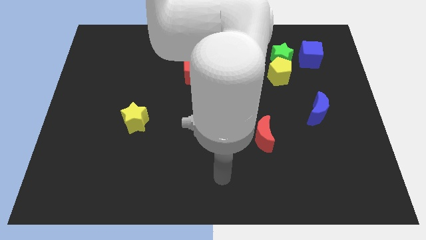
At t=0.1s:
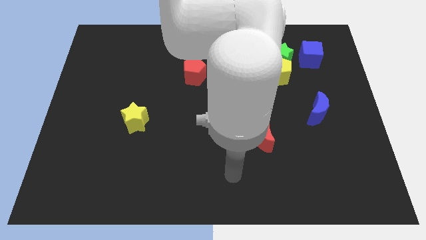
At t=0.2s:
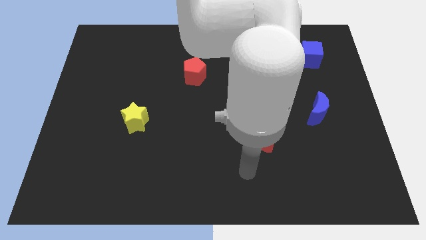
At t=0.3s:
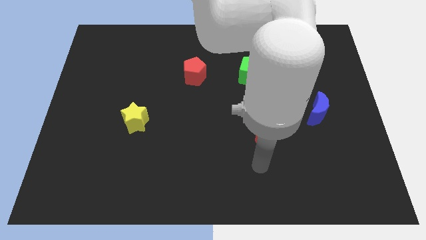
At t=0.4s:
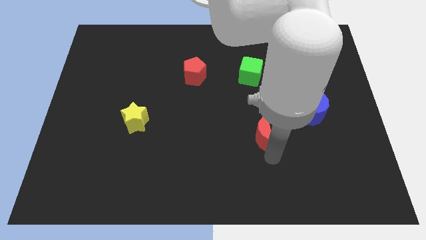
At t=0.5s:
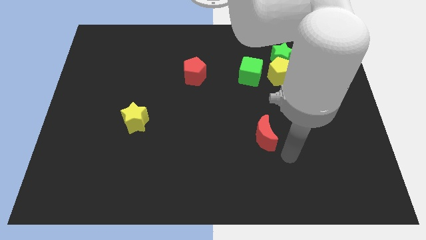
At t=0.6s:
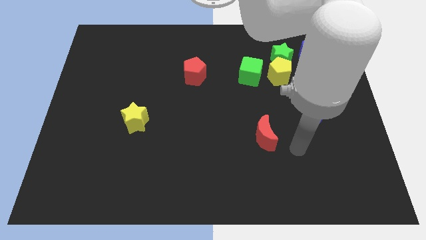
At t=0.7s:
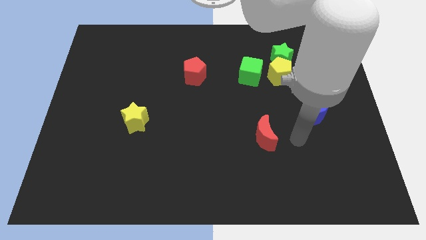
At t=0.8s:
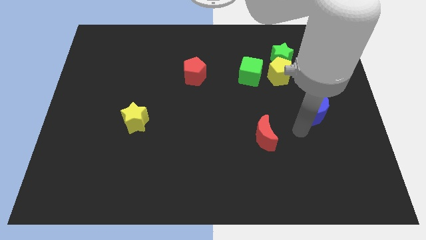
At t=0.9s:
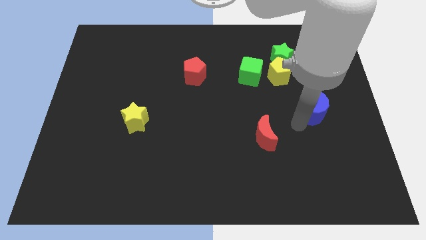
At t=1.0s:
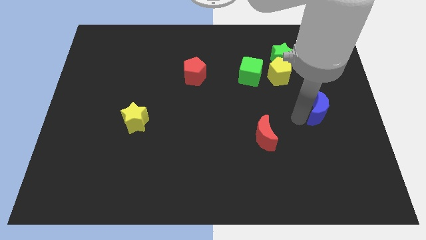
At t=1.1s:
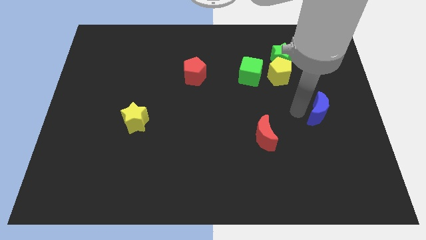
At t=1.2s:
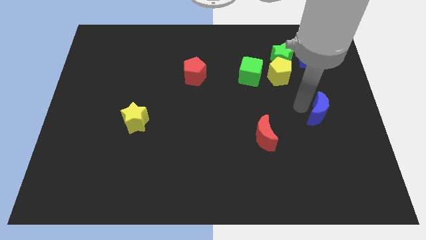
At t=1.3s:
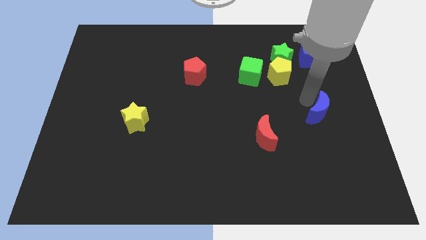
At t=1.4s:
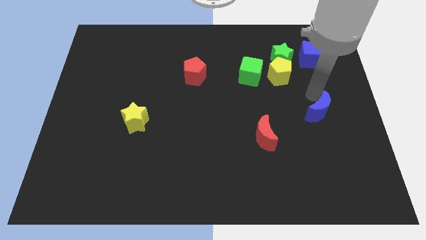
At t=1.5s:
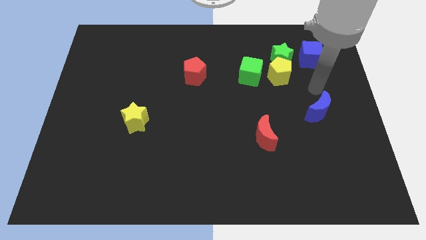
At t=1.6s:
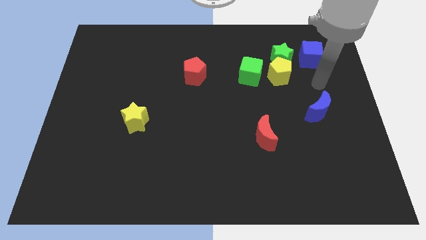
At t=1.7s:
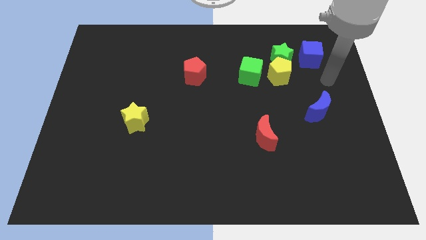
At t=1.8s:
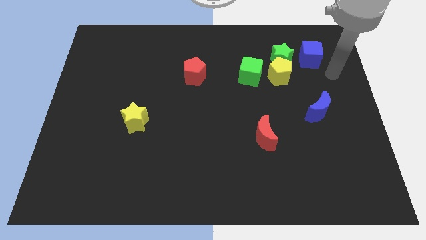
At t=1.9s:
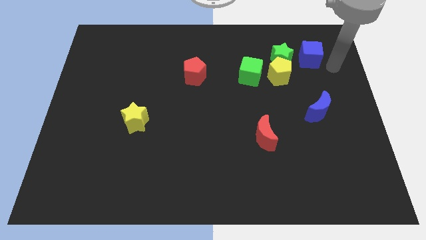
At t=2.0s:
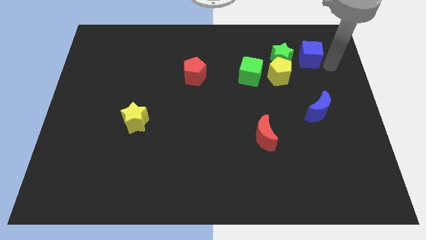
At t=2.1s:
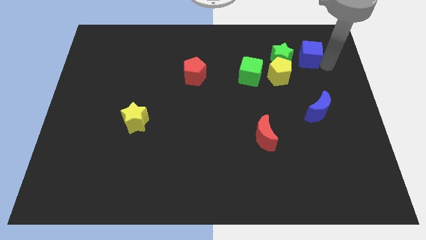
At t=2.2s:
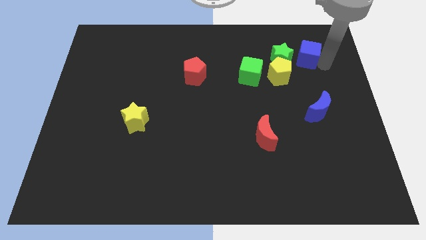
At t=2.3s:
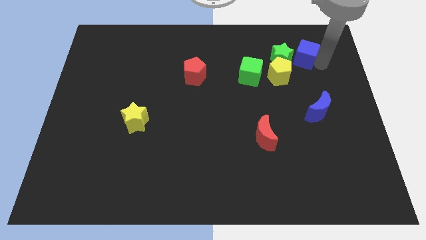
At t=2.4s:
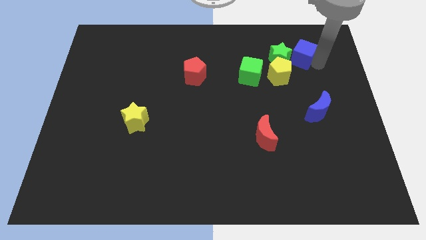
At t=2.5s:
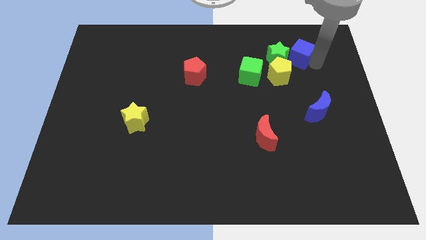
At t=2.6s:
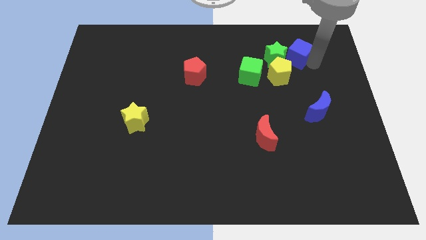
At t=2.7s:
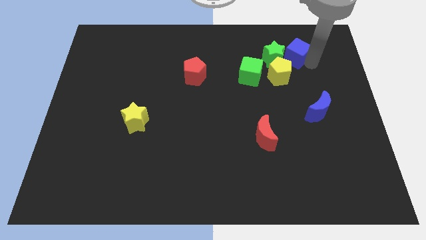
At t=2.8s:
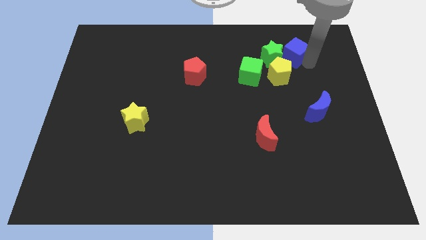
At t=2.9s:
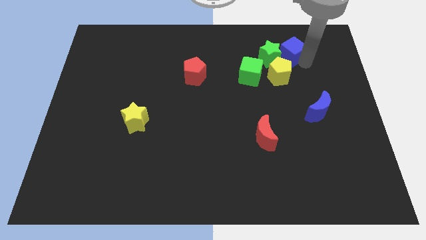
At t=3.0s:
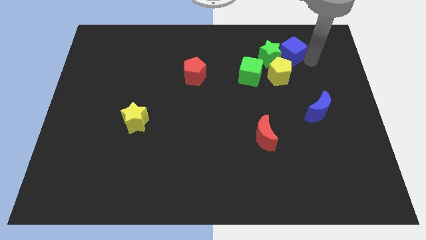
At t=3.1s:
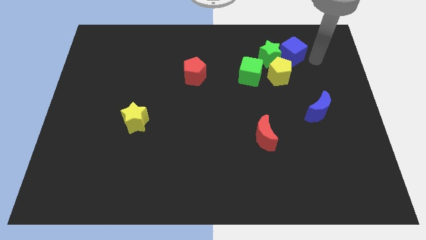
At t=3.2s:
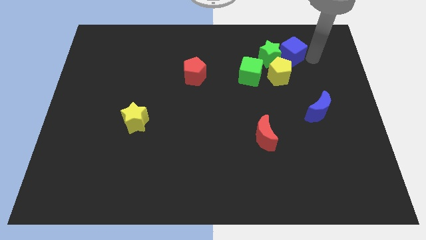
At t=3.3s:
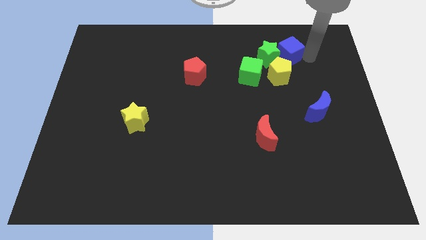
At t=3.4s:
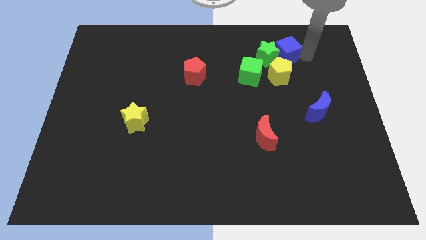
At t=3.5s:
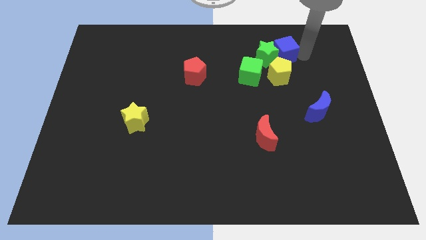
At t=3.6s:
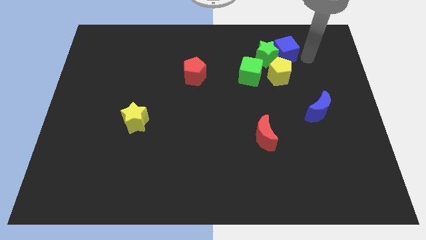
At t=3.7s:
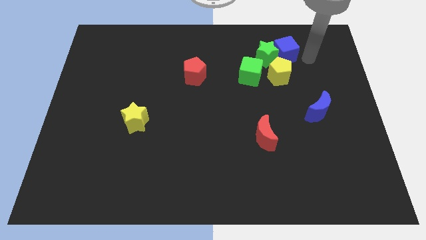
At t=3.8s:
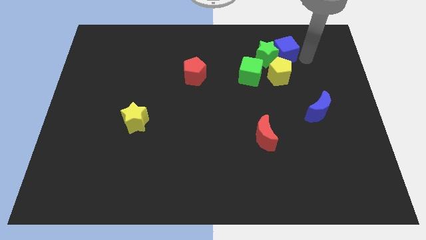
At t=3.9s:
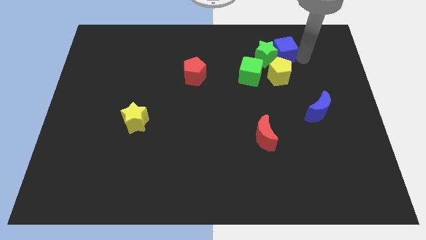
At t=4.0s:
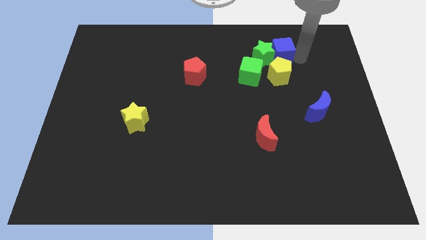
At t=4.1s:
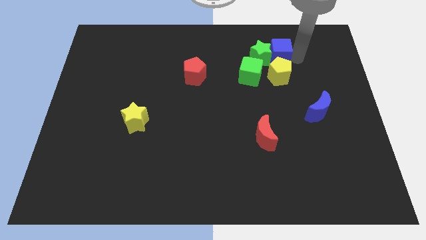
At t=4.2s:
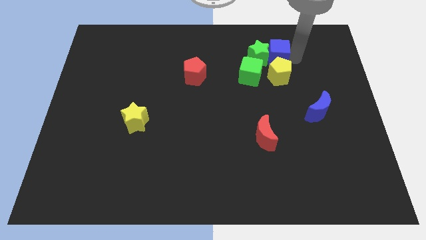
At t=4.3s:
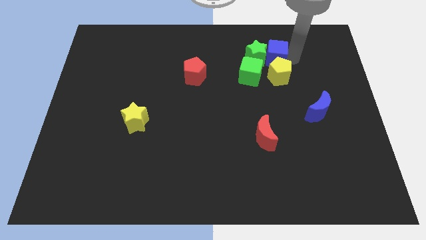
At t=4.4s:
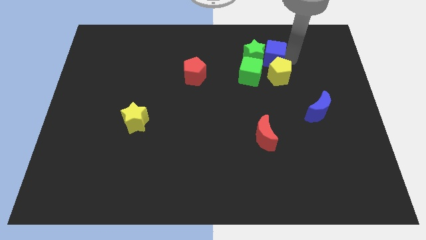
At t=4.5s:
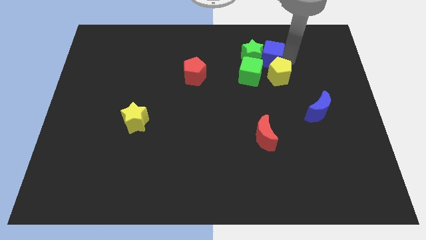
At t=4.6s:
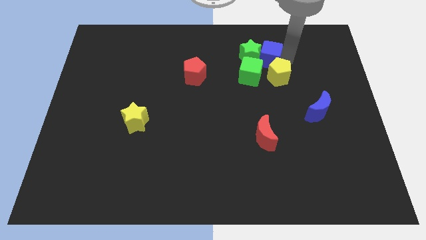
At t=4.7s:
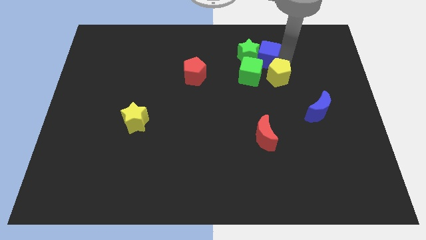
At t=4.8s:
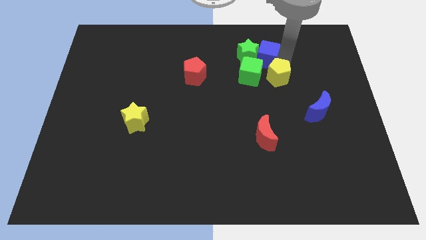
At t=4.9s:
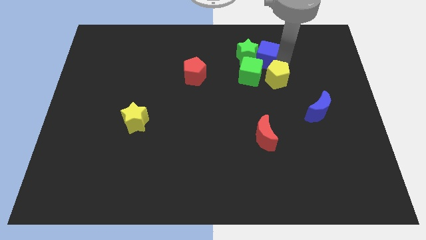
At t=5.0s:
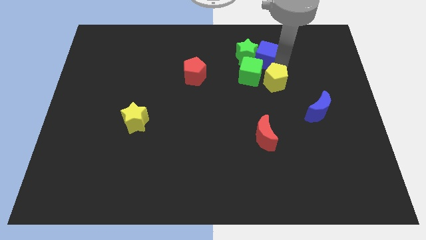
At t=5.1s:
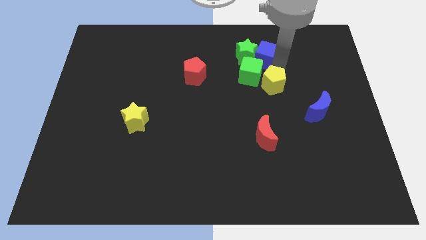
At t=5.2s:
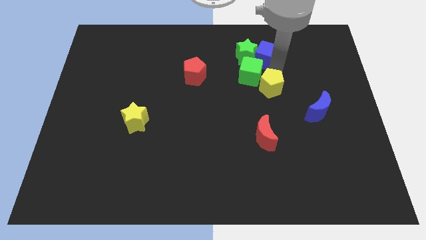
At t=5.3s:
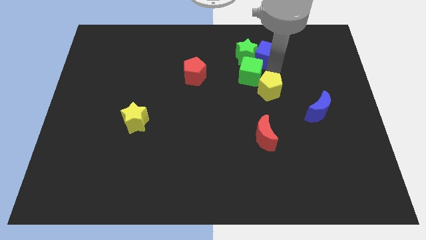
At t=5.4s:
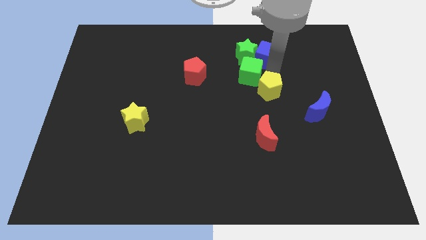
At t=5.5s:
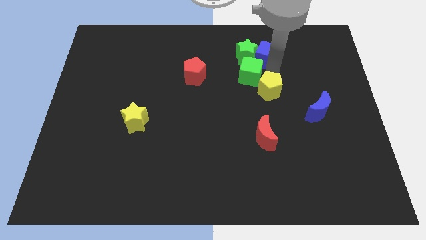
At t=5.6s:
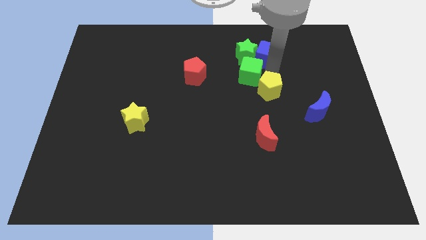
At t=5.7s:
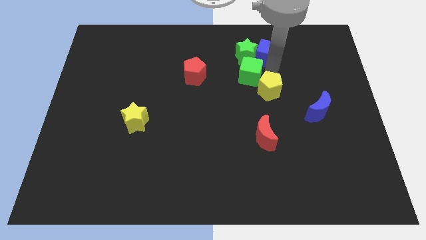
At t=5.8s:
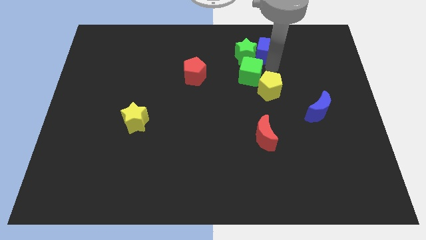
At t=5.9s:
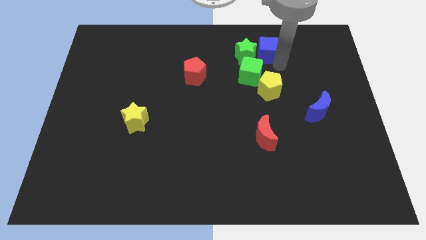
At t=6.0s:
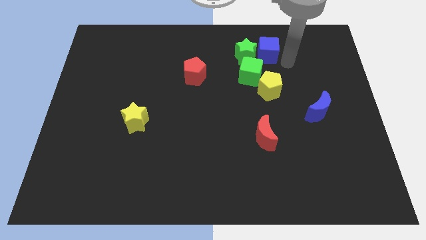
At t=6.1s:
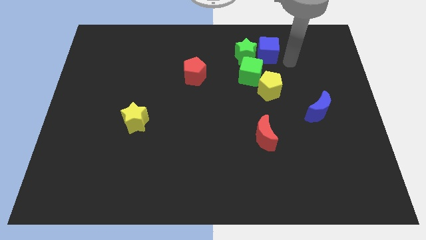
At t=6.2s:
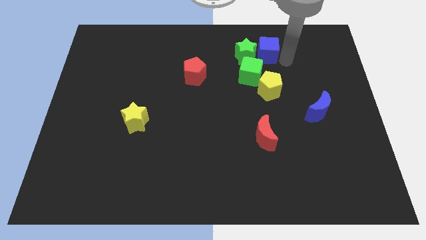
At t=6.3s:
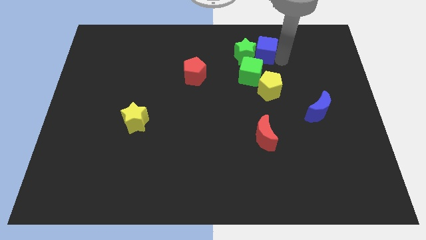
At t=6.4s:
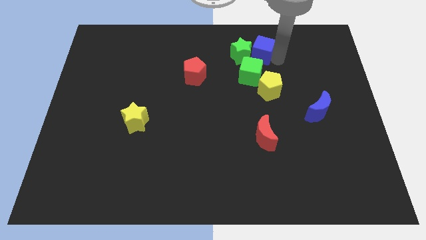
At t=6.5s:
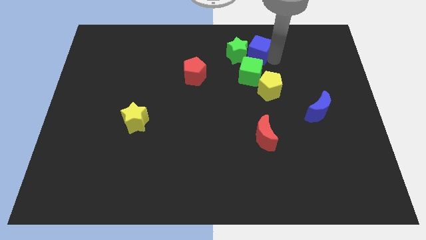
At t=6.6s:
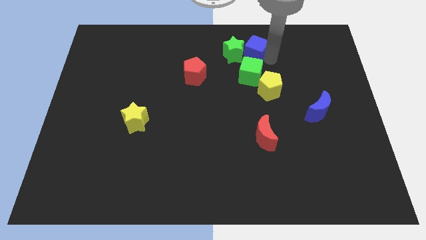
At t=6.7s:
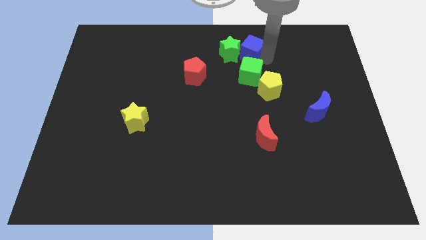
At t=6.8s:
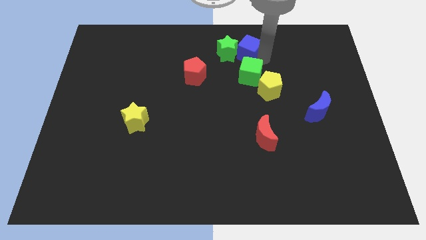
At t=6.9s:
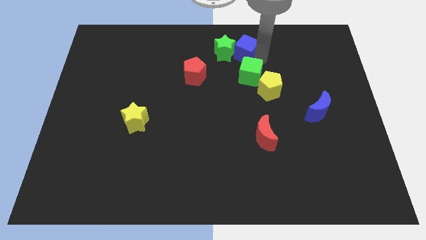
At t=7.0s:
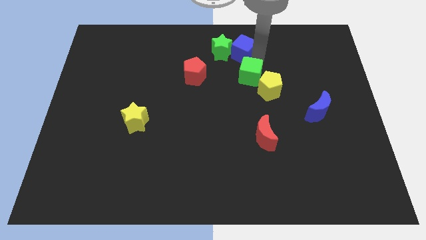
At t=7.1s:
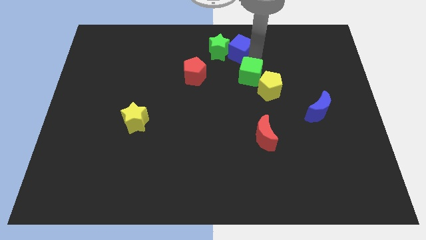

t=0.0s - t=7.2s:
put the blue cube to the top
